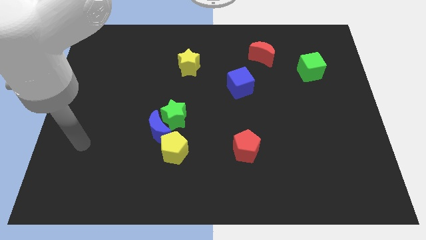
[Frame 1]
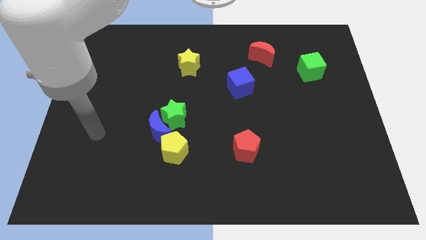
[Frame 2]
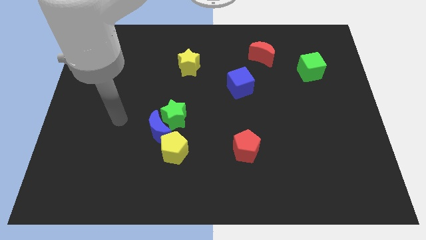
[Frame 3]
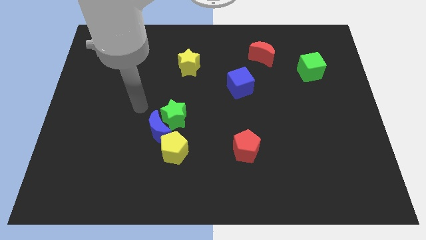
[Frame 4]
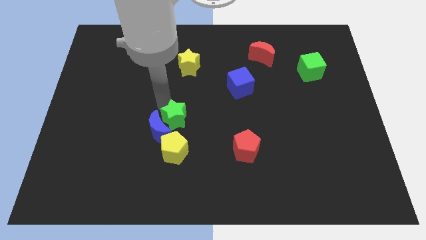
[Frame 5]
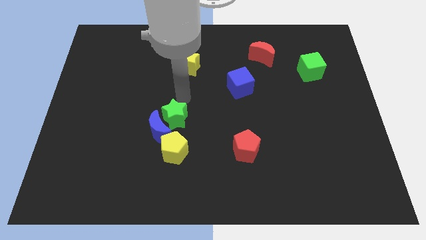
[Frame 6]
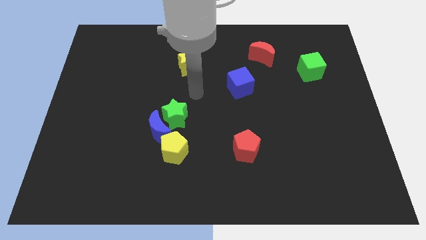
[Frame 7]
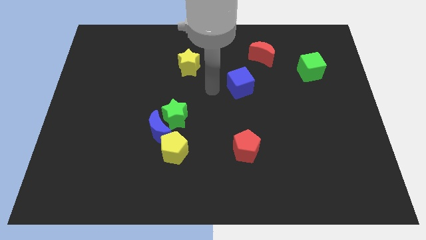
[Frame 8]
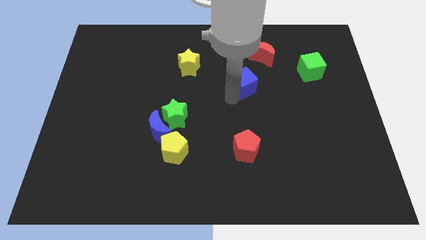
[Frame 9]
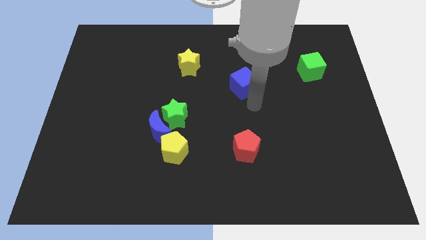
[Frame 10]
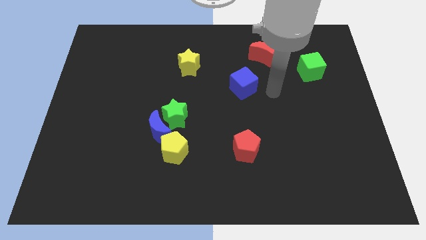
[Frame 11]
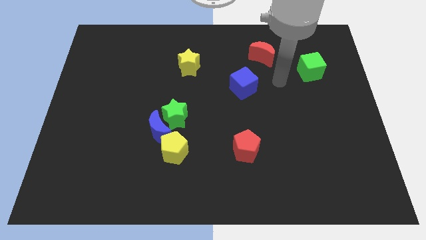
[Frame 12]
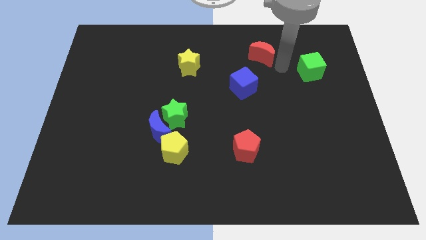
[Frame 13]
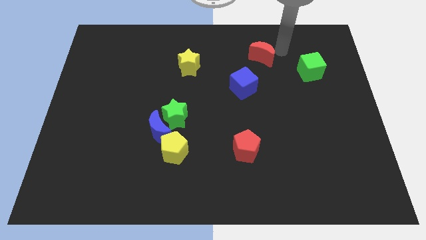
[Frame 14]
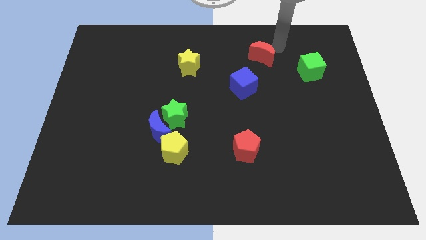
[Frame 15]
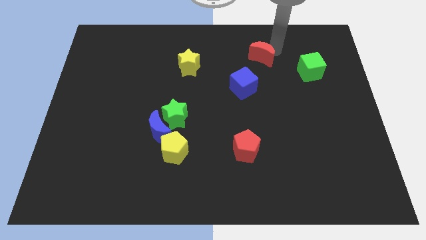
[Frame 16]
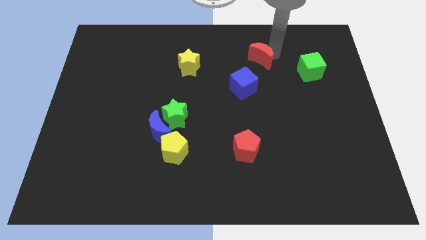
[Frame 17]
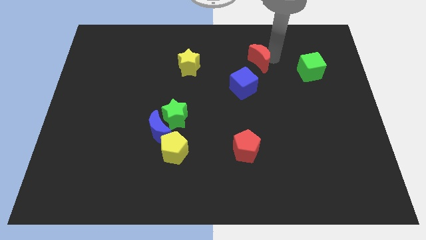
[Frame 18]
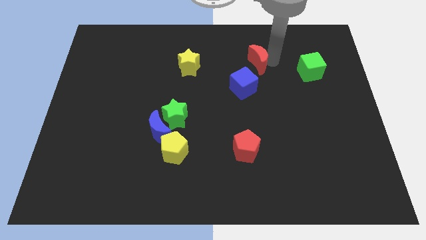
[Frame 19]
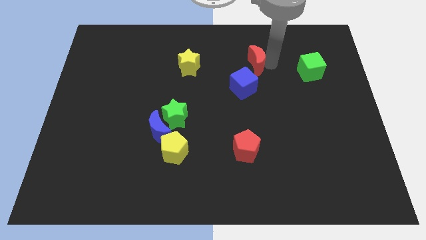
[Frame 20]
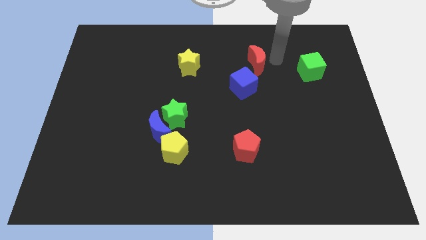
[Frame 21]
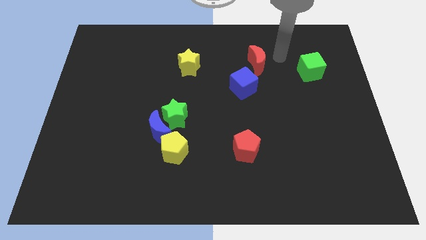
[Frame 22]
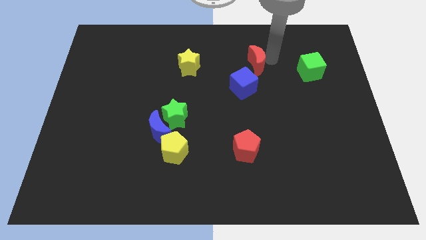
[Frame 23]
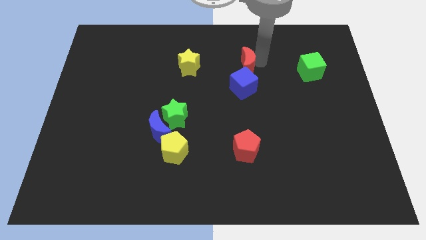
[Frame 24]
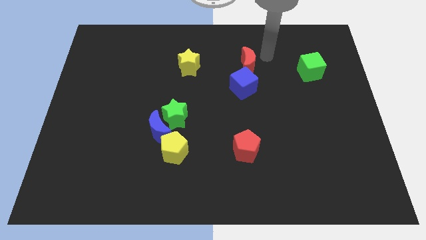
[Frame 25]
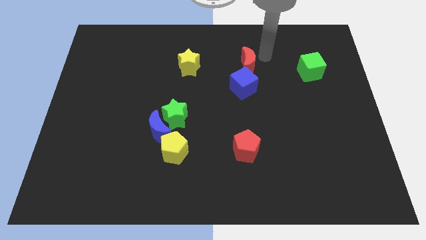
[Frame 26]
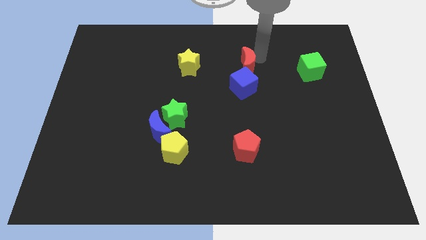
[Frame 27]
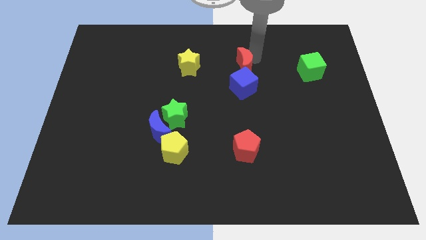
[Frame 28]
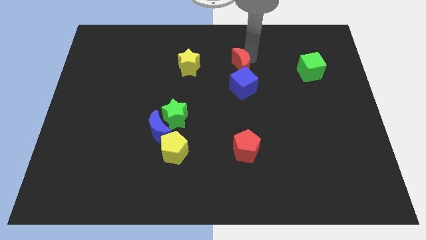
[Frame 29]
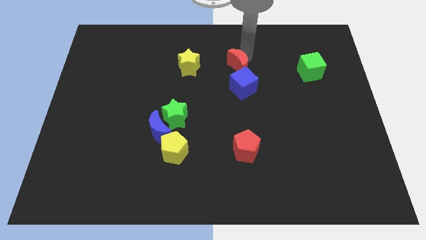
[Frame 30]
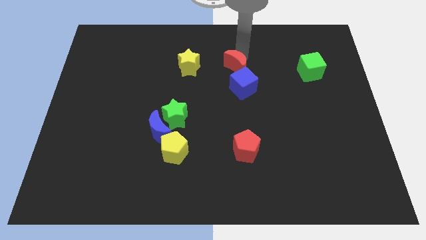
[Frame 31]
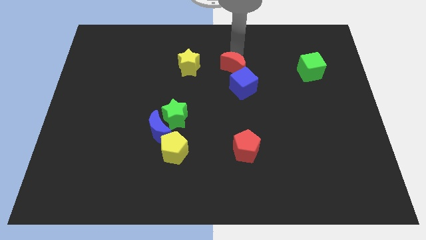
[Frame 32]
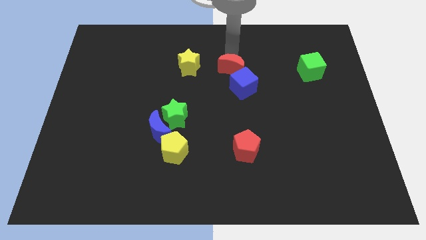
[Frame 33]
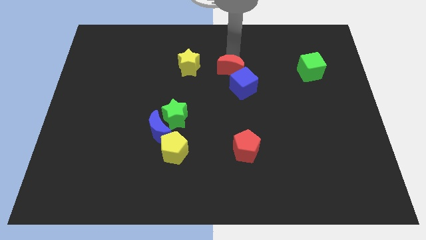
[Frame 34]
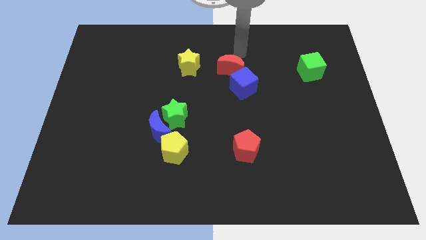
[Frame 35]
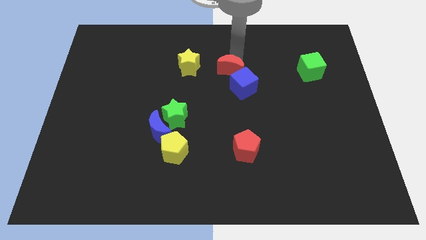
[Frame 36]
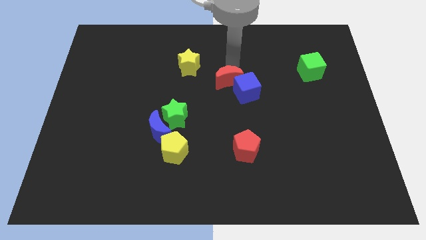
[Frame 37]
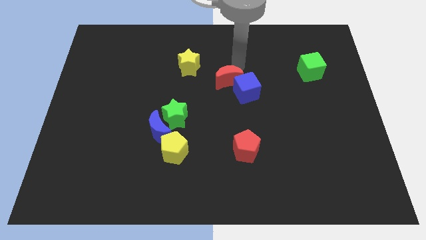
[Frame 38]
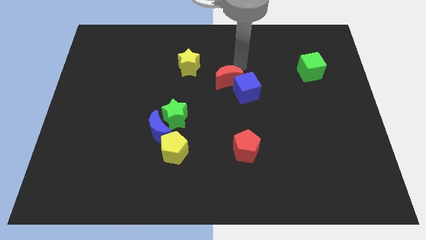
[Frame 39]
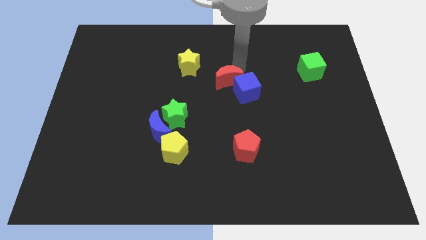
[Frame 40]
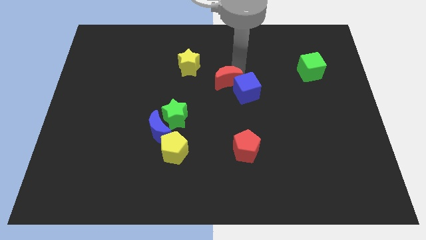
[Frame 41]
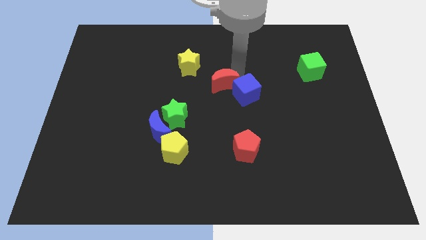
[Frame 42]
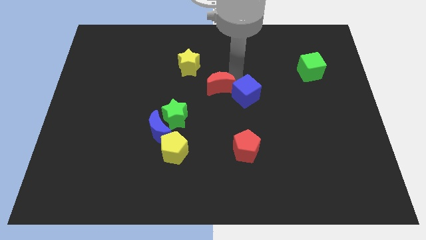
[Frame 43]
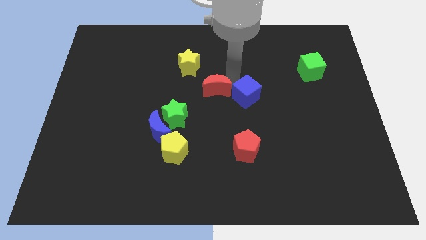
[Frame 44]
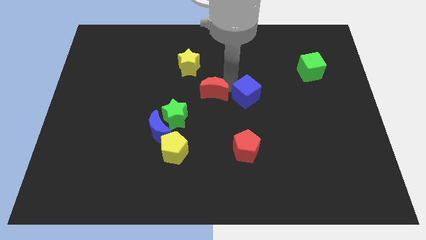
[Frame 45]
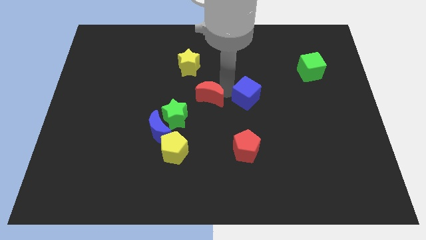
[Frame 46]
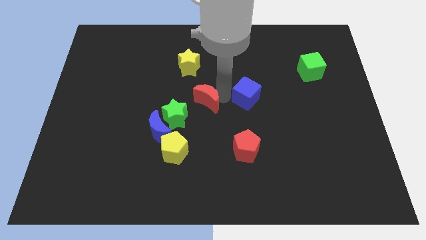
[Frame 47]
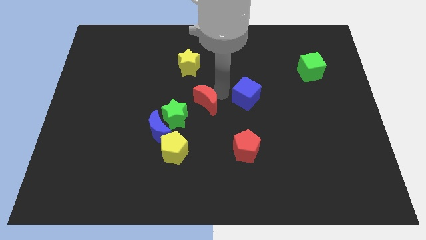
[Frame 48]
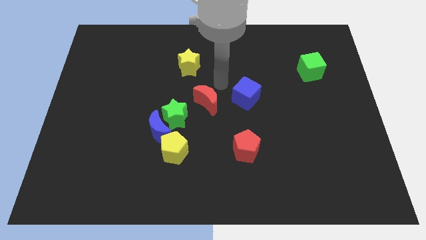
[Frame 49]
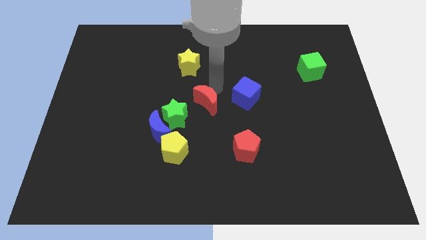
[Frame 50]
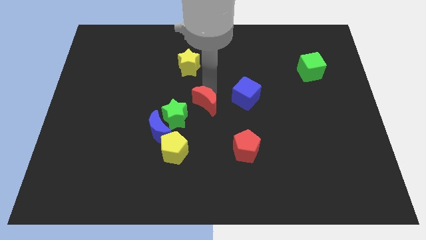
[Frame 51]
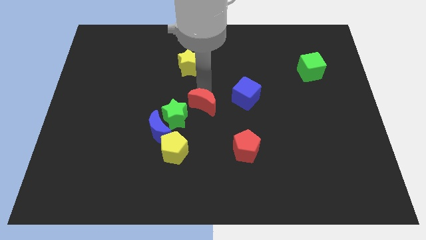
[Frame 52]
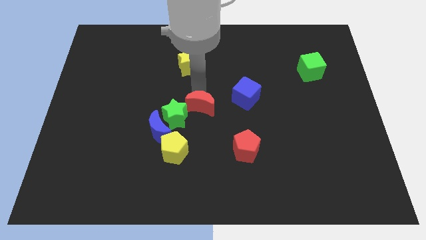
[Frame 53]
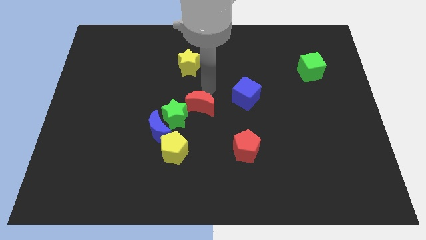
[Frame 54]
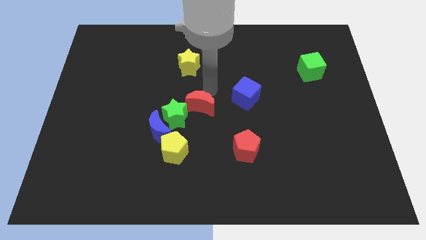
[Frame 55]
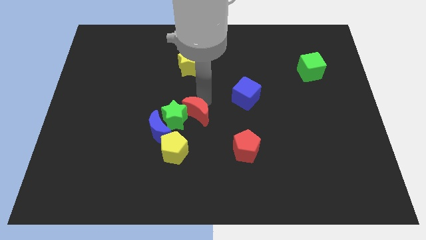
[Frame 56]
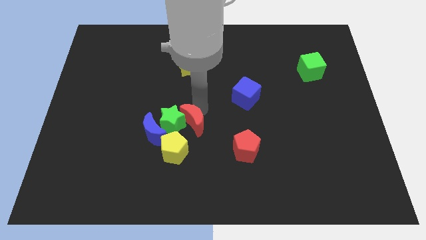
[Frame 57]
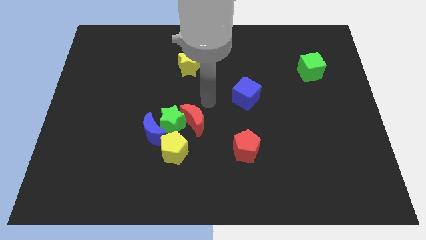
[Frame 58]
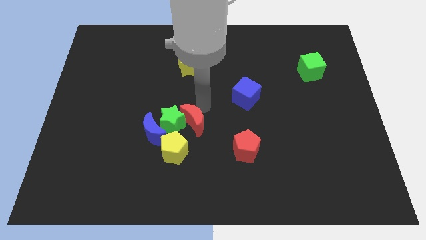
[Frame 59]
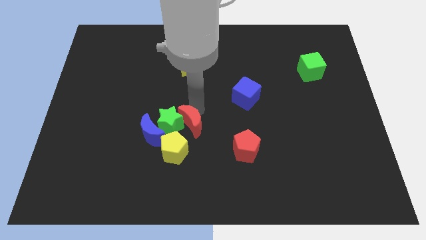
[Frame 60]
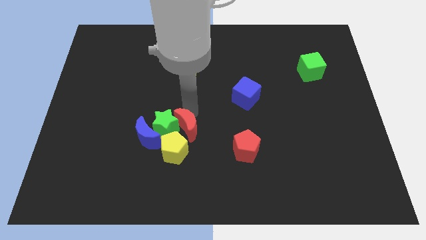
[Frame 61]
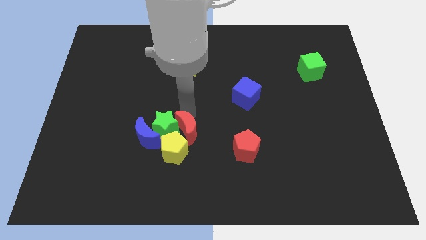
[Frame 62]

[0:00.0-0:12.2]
put the red moon close to the yellow pentagon
